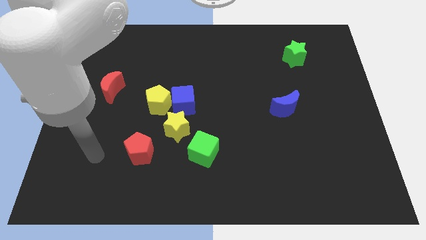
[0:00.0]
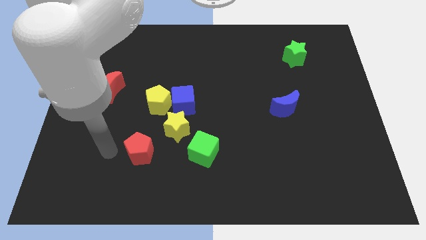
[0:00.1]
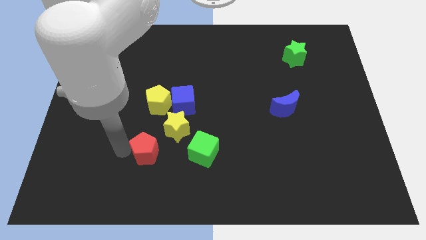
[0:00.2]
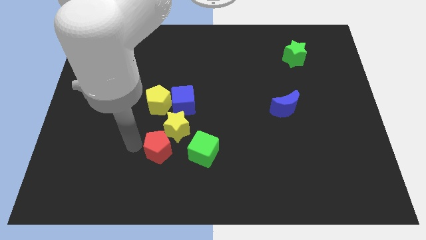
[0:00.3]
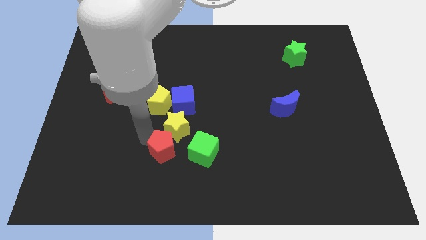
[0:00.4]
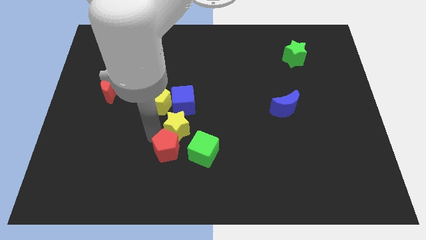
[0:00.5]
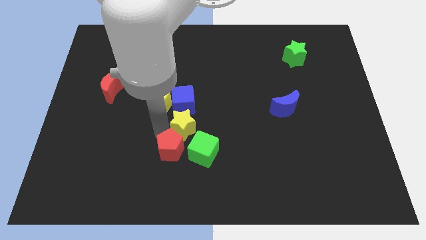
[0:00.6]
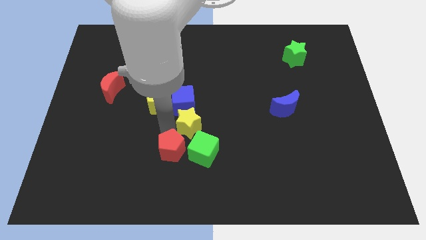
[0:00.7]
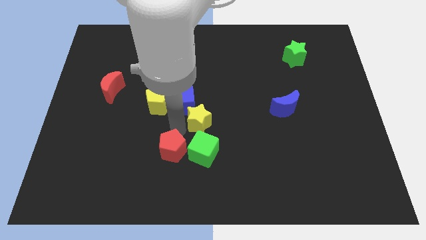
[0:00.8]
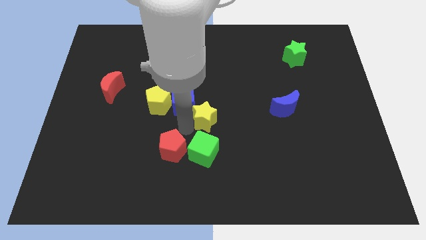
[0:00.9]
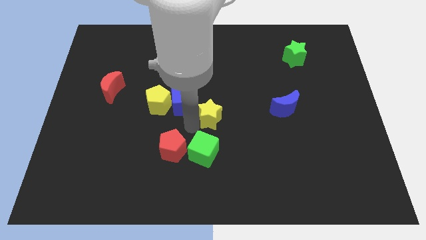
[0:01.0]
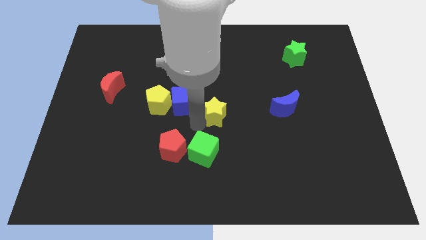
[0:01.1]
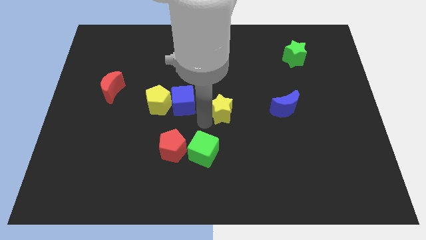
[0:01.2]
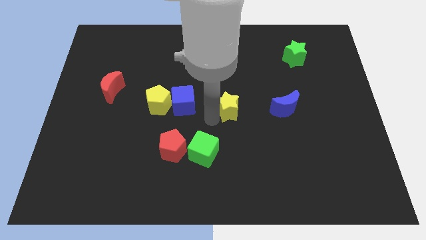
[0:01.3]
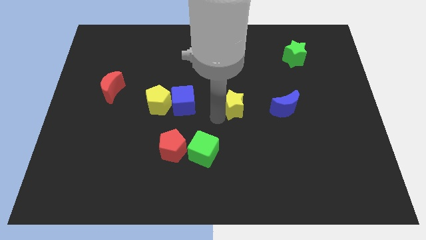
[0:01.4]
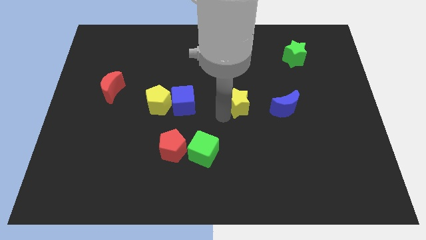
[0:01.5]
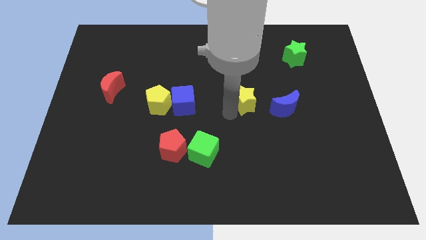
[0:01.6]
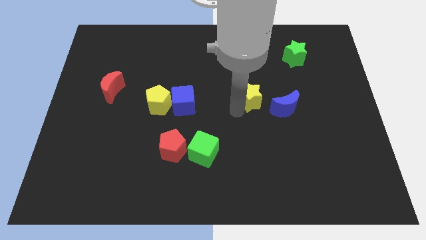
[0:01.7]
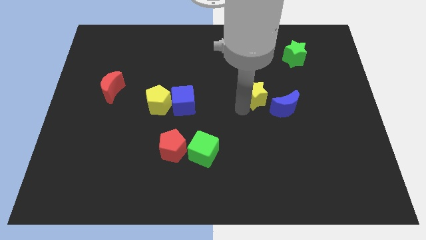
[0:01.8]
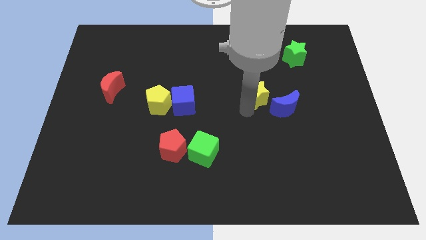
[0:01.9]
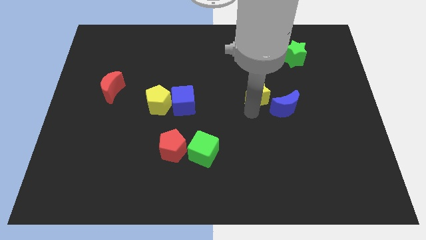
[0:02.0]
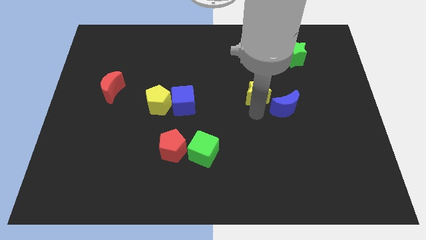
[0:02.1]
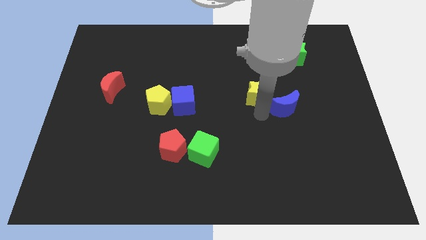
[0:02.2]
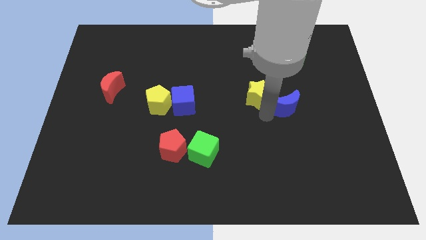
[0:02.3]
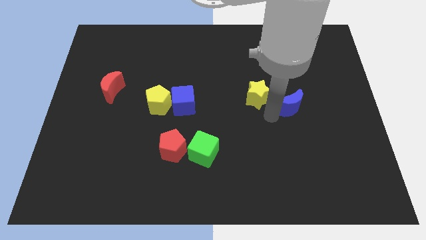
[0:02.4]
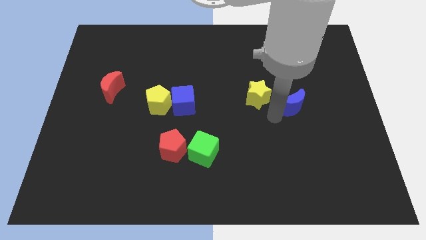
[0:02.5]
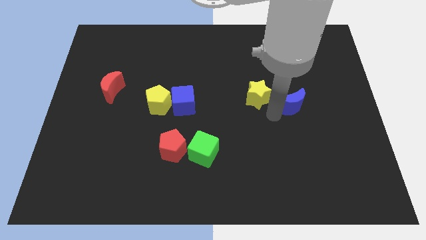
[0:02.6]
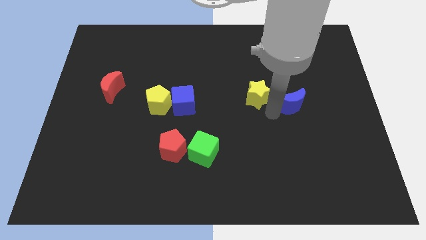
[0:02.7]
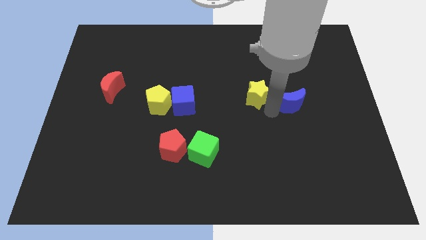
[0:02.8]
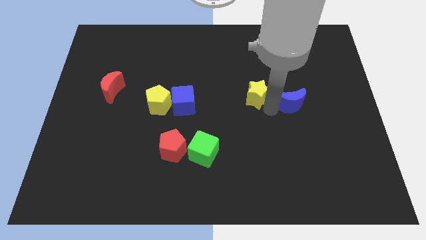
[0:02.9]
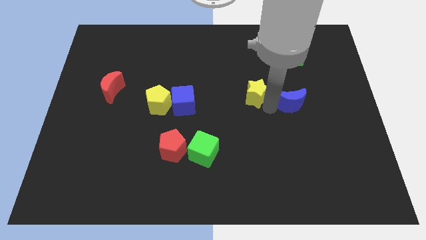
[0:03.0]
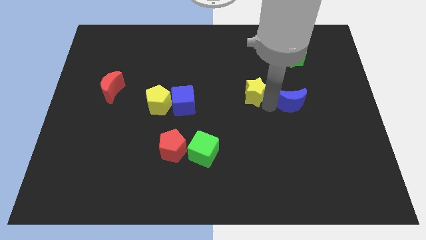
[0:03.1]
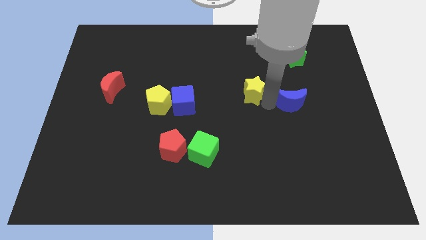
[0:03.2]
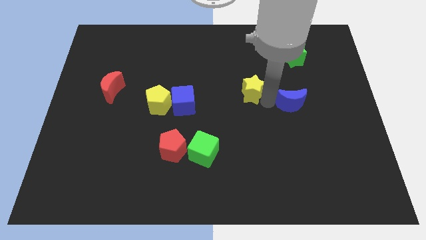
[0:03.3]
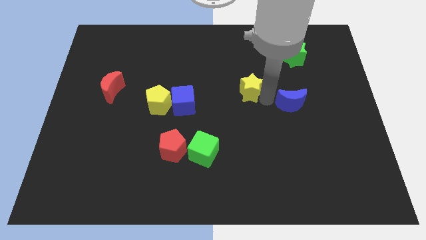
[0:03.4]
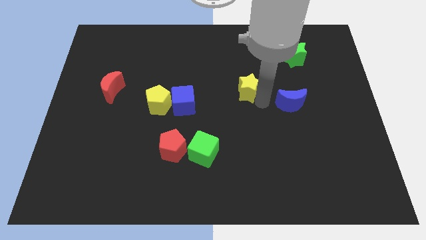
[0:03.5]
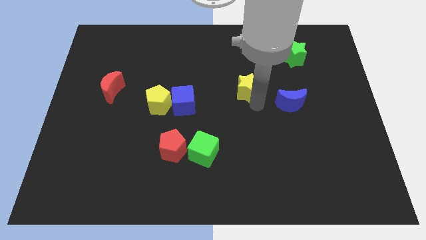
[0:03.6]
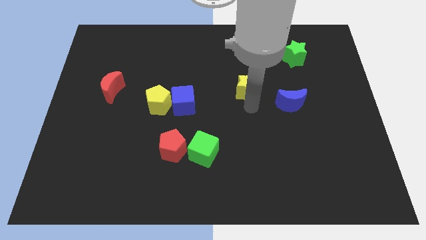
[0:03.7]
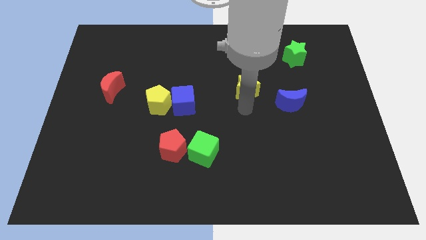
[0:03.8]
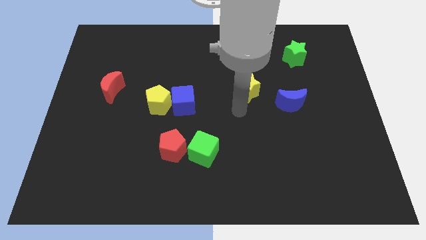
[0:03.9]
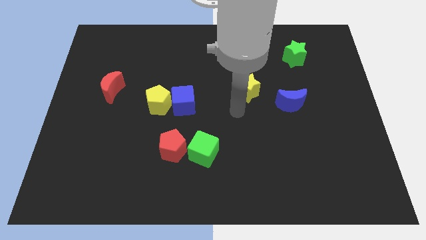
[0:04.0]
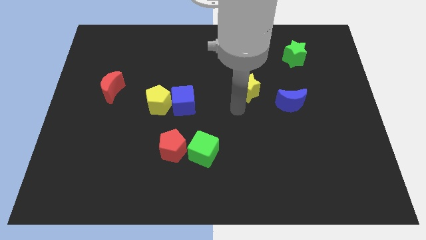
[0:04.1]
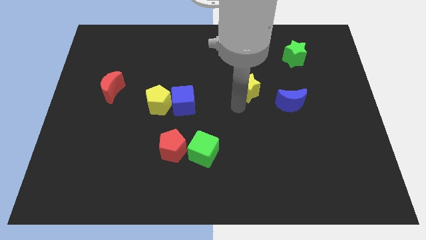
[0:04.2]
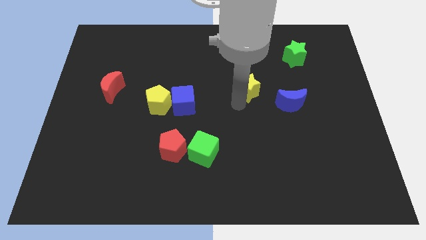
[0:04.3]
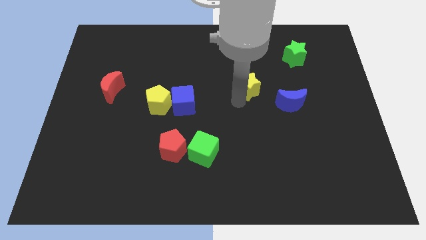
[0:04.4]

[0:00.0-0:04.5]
push the yellow star diagonally up and to the right

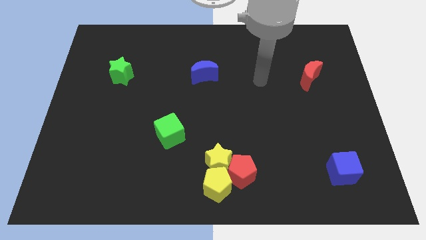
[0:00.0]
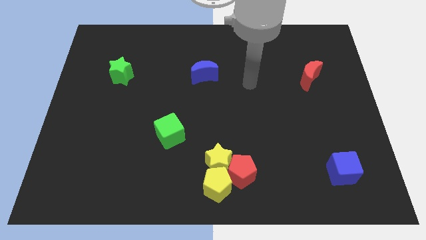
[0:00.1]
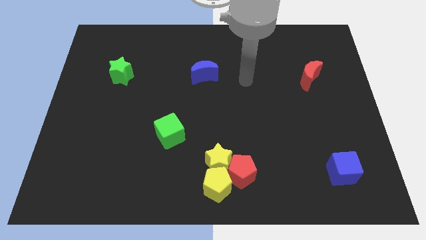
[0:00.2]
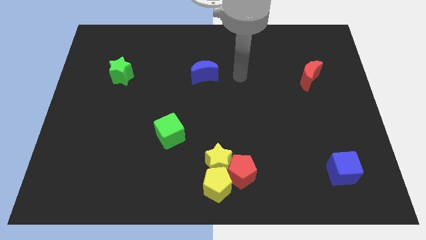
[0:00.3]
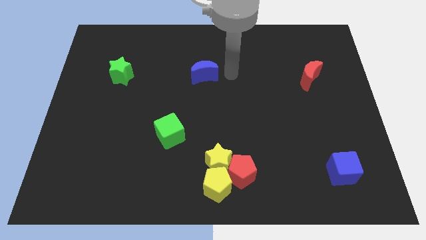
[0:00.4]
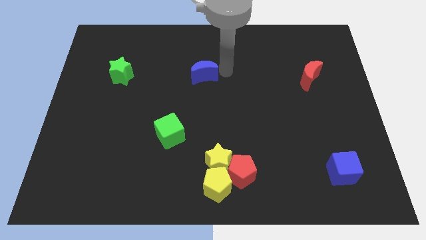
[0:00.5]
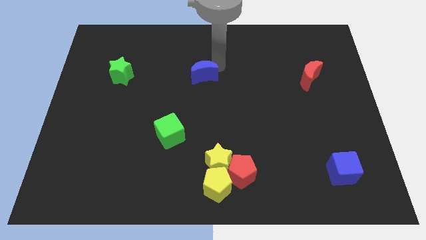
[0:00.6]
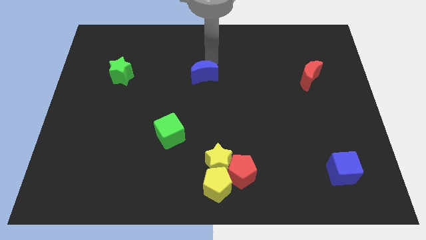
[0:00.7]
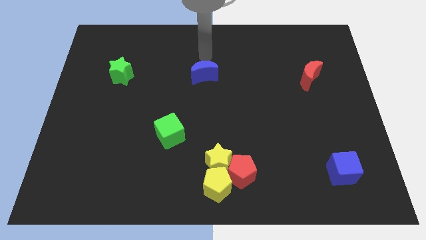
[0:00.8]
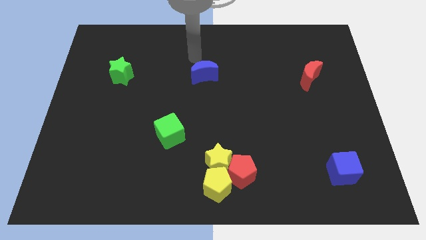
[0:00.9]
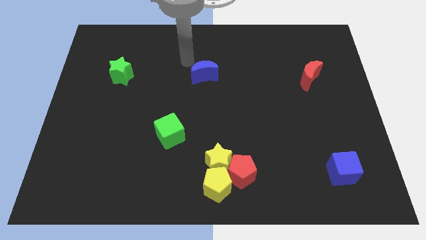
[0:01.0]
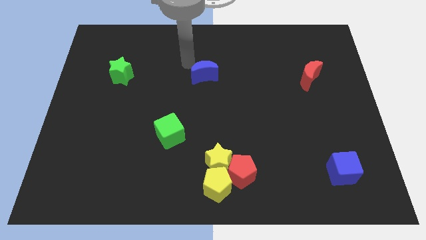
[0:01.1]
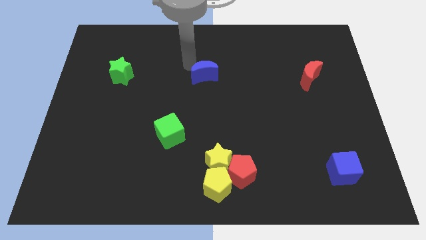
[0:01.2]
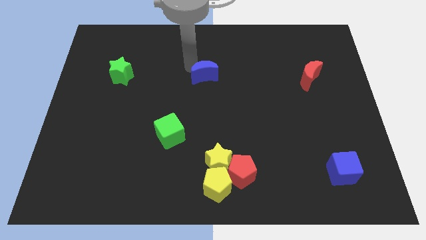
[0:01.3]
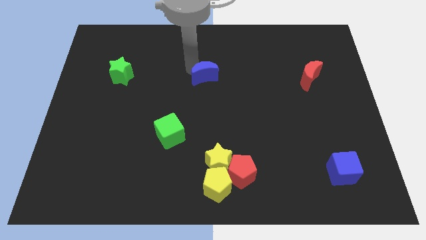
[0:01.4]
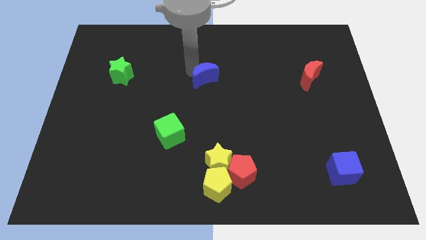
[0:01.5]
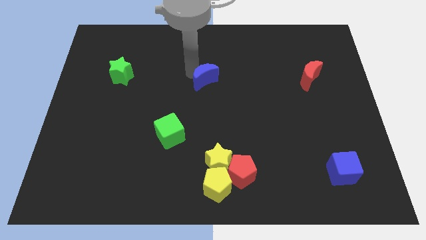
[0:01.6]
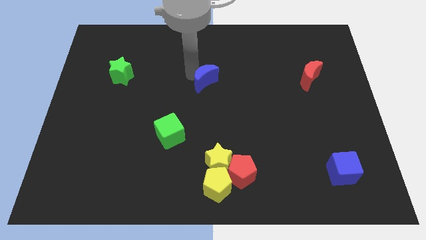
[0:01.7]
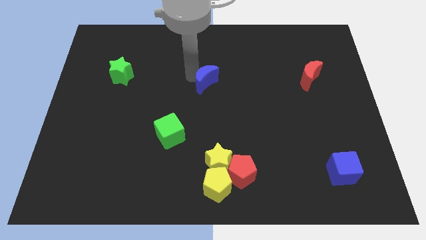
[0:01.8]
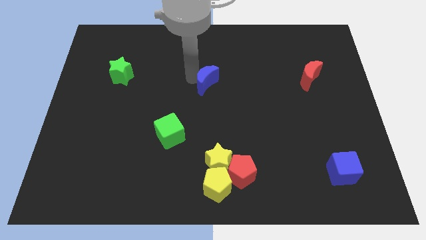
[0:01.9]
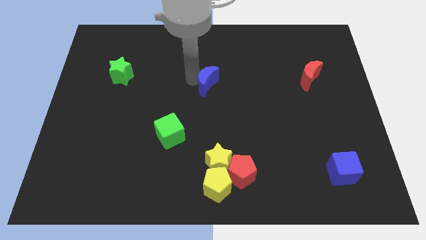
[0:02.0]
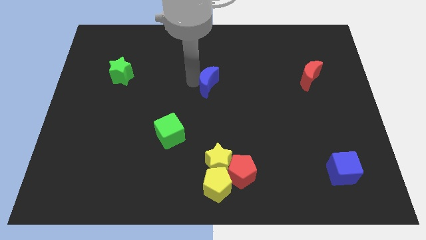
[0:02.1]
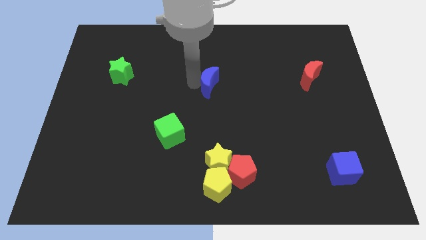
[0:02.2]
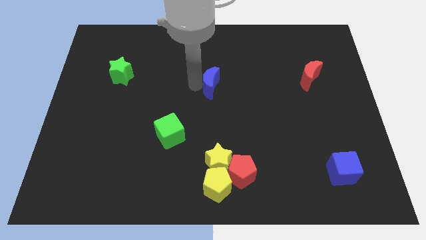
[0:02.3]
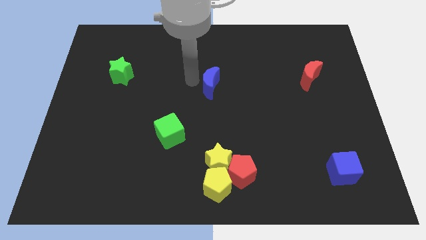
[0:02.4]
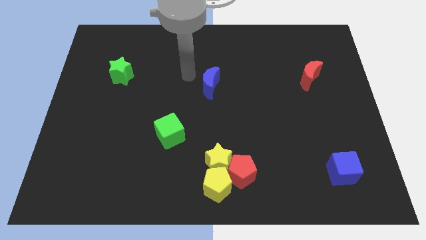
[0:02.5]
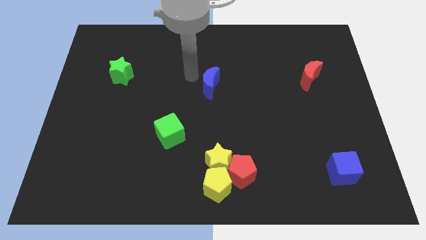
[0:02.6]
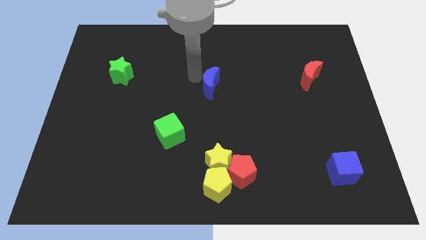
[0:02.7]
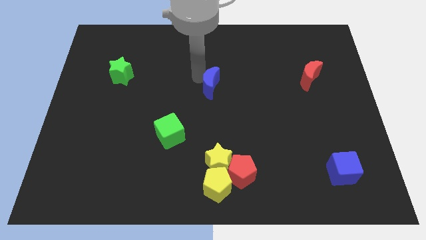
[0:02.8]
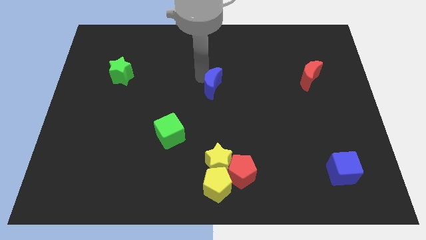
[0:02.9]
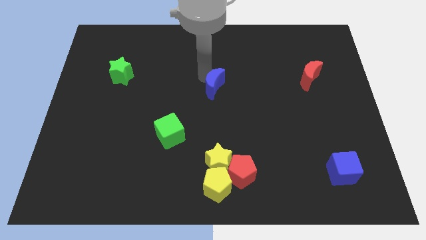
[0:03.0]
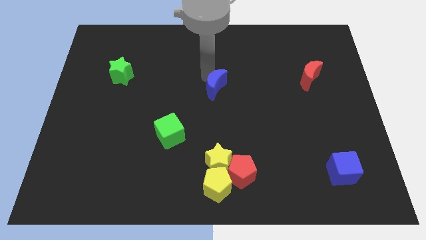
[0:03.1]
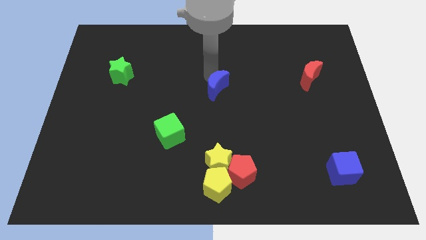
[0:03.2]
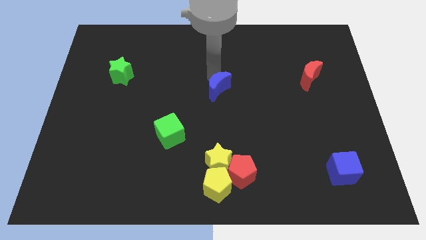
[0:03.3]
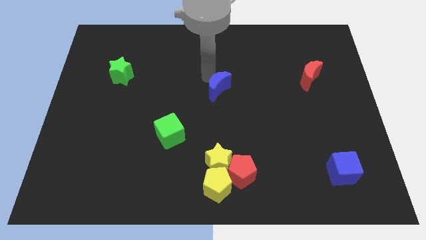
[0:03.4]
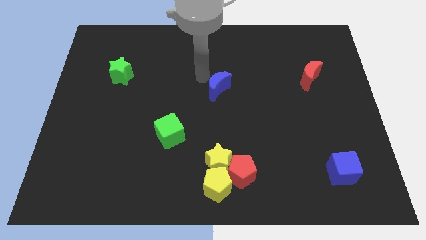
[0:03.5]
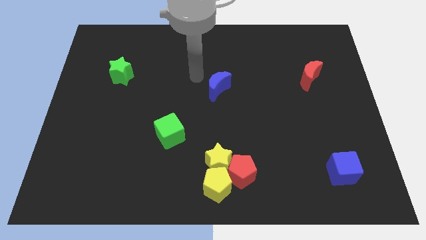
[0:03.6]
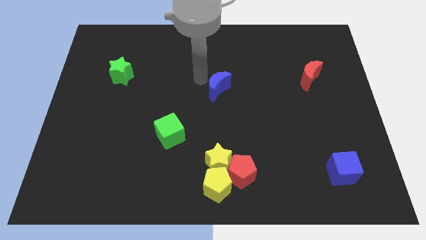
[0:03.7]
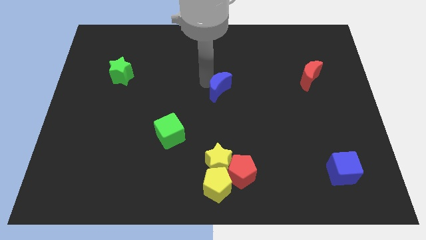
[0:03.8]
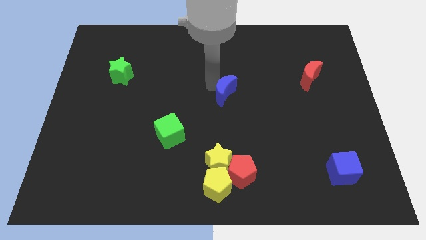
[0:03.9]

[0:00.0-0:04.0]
move the blue moon downwards and then to the right a bit
